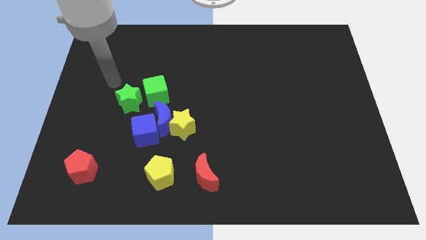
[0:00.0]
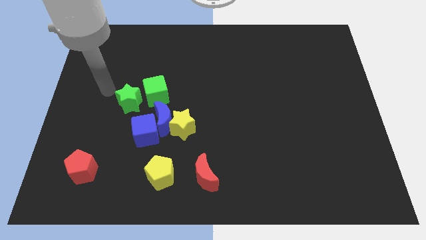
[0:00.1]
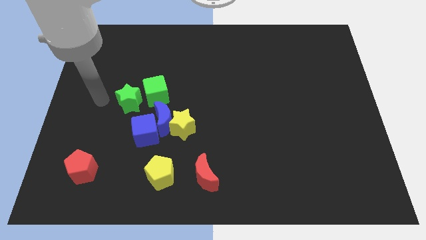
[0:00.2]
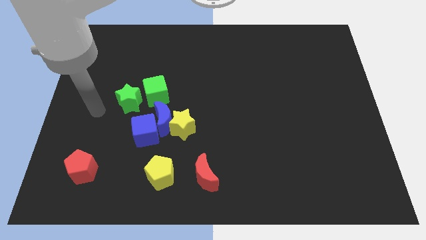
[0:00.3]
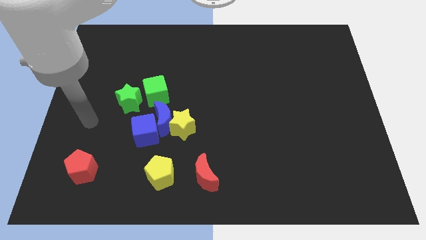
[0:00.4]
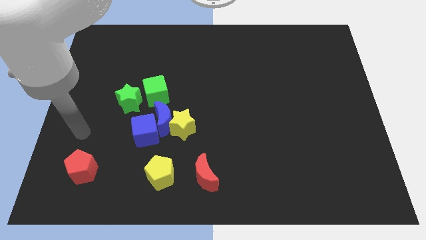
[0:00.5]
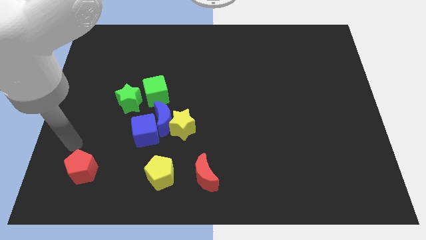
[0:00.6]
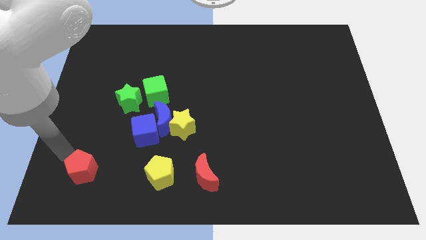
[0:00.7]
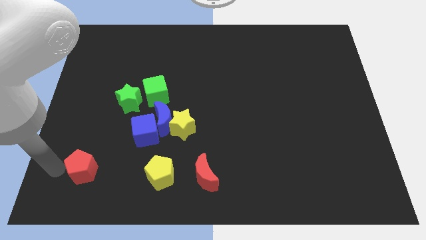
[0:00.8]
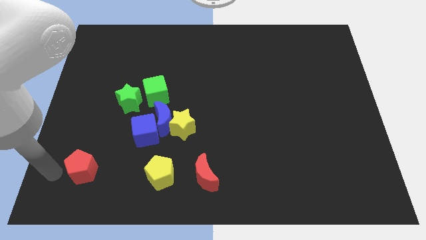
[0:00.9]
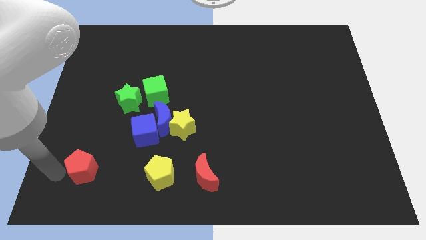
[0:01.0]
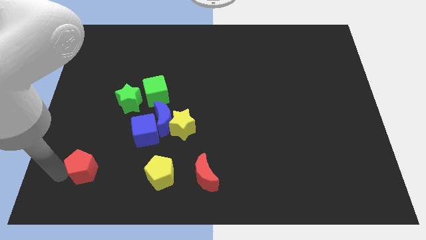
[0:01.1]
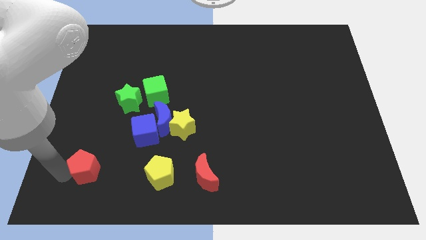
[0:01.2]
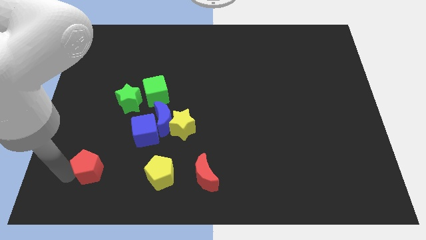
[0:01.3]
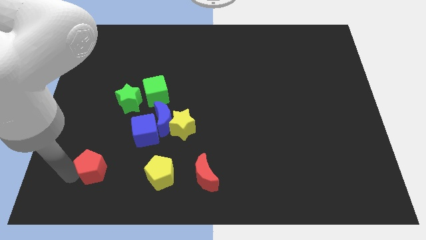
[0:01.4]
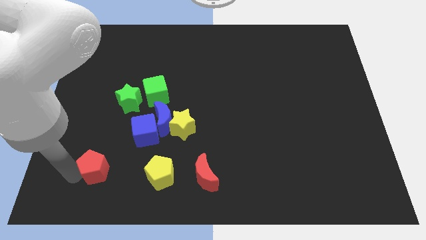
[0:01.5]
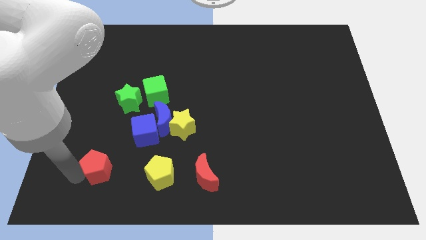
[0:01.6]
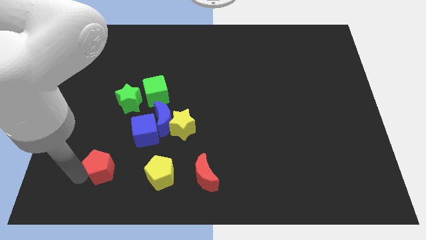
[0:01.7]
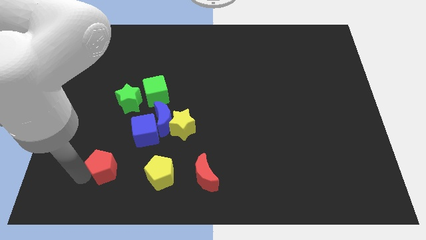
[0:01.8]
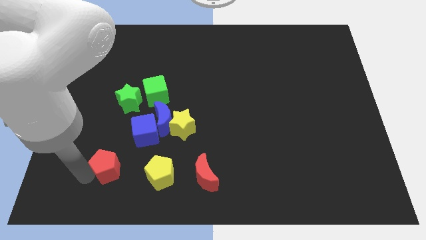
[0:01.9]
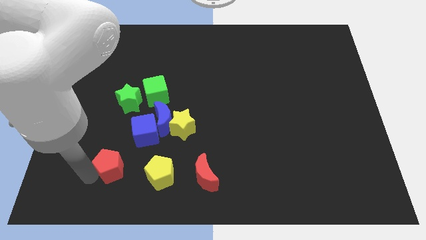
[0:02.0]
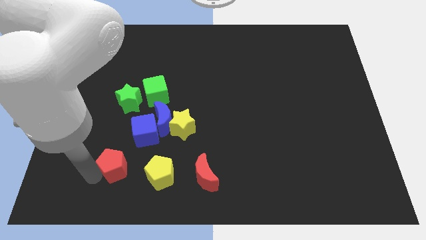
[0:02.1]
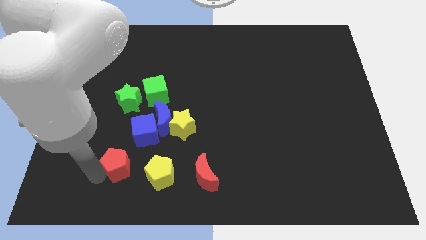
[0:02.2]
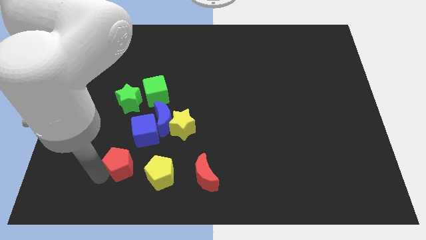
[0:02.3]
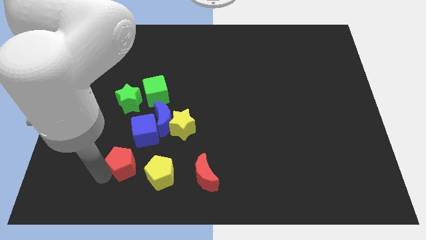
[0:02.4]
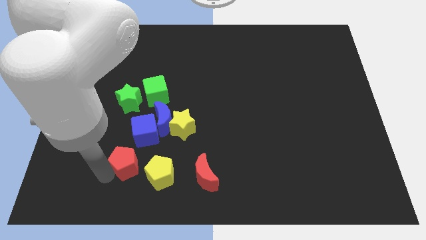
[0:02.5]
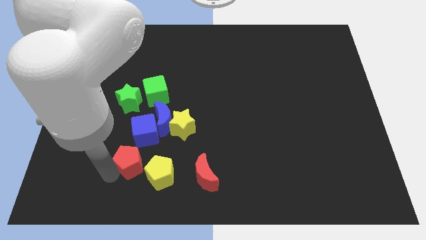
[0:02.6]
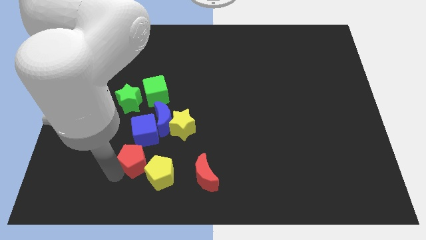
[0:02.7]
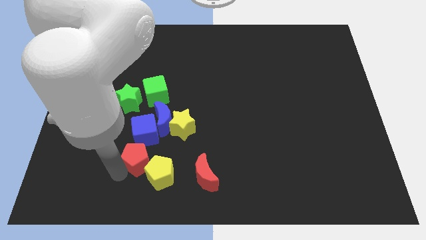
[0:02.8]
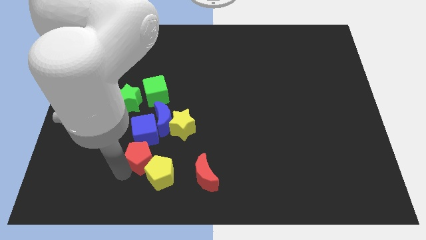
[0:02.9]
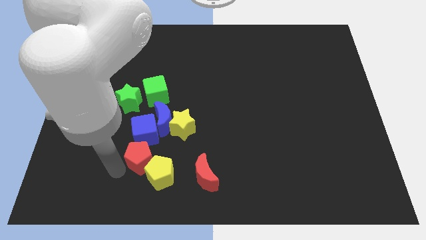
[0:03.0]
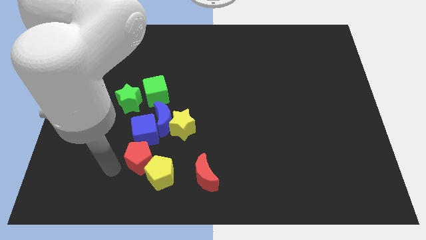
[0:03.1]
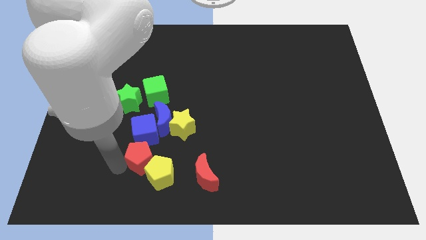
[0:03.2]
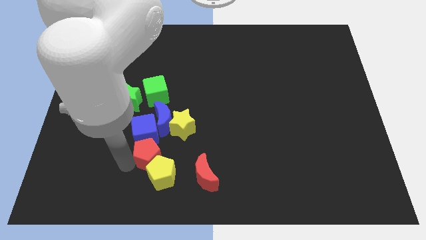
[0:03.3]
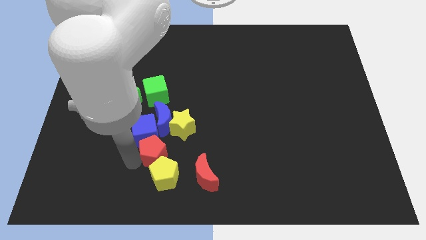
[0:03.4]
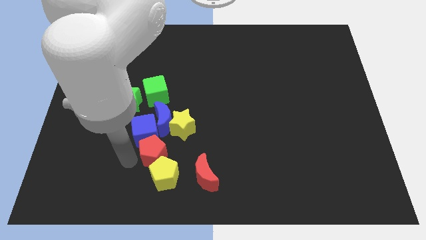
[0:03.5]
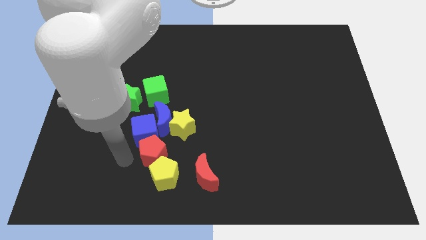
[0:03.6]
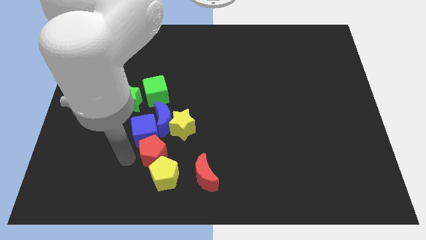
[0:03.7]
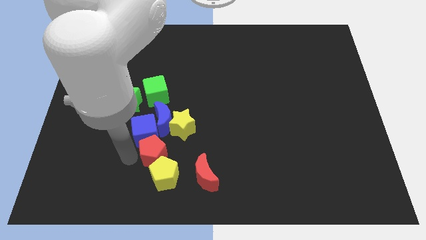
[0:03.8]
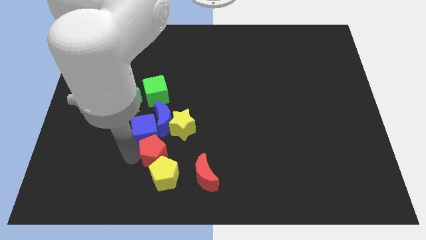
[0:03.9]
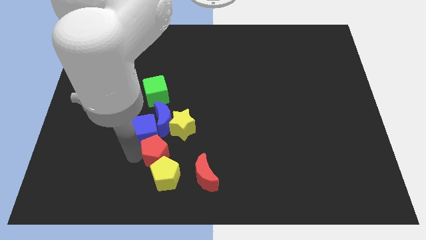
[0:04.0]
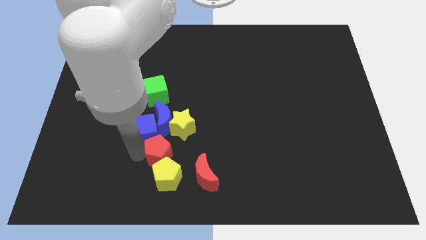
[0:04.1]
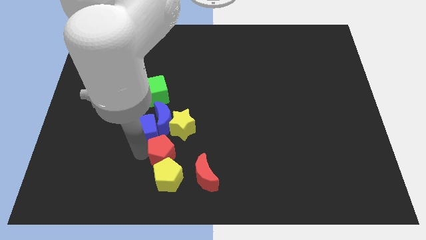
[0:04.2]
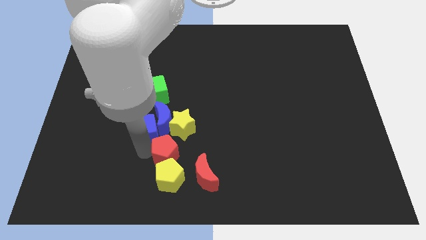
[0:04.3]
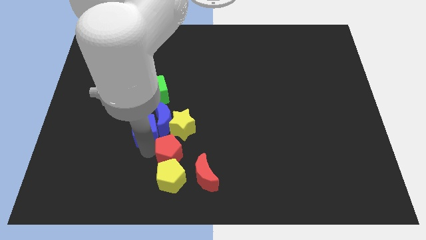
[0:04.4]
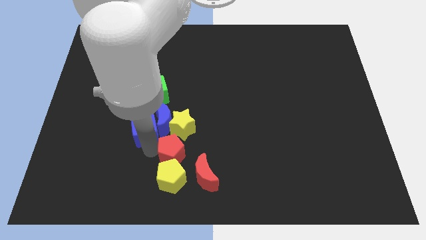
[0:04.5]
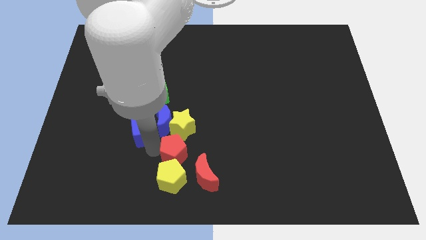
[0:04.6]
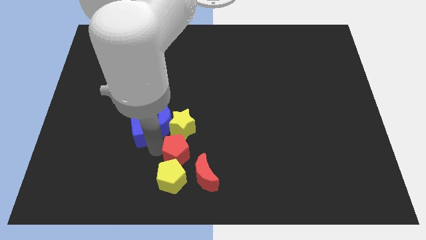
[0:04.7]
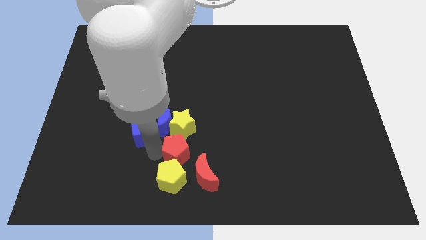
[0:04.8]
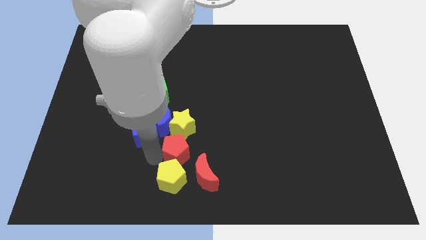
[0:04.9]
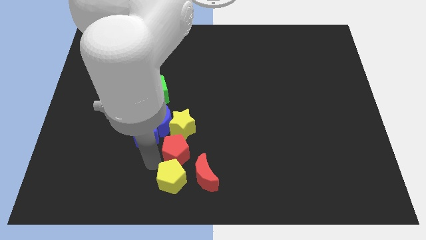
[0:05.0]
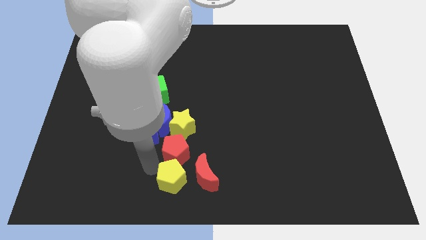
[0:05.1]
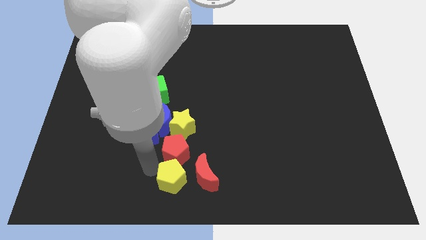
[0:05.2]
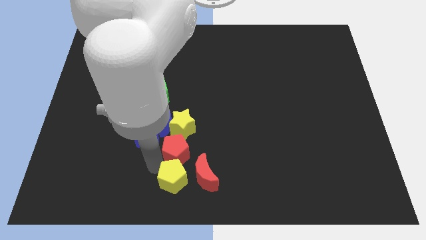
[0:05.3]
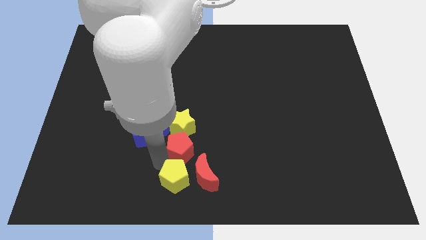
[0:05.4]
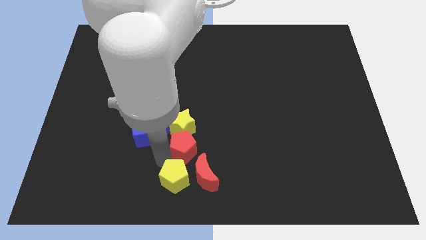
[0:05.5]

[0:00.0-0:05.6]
slide the red pentagon right

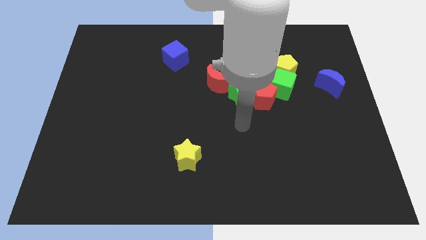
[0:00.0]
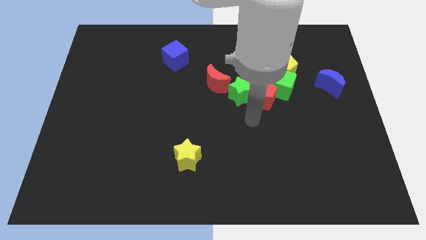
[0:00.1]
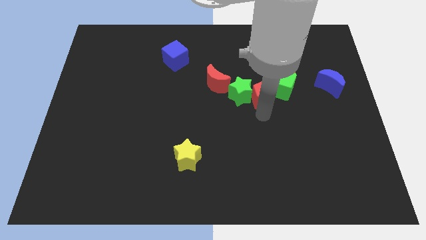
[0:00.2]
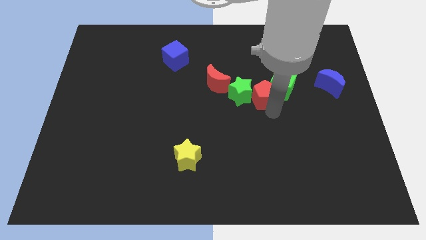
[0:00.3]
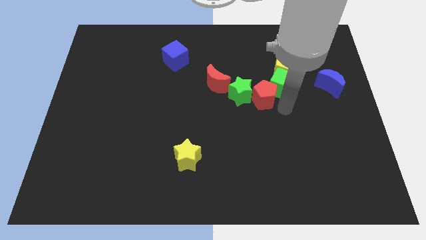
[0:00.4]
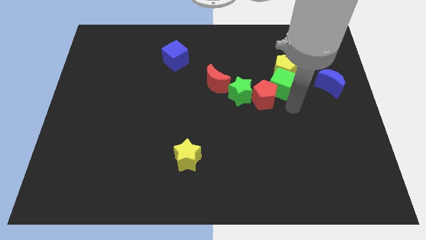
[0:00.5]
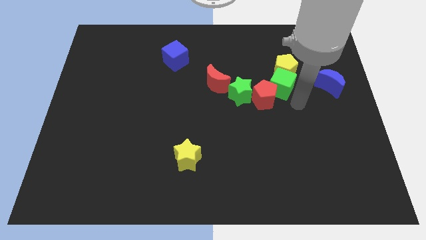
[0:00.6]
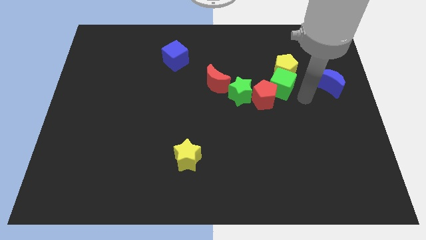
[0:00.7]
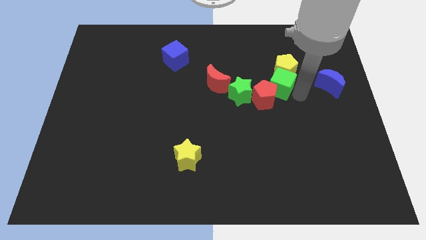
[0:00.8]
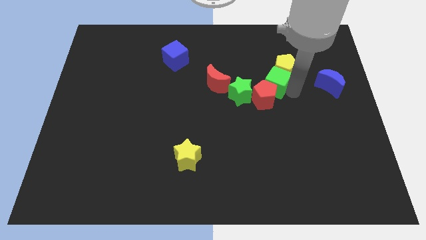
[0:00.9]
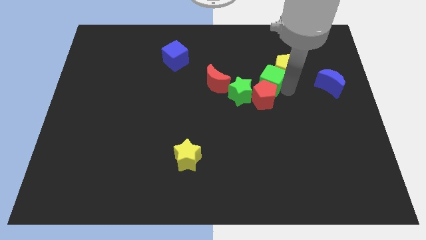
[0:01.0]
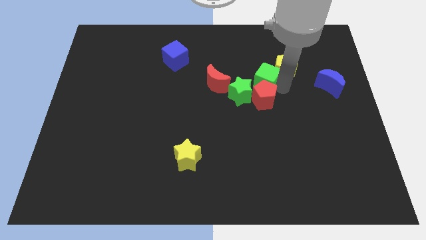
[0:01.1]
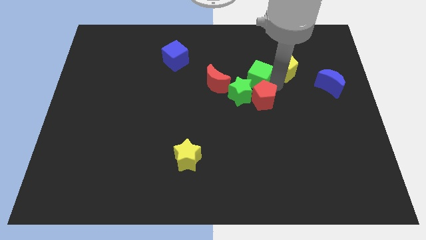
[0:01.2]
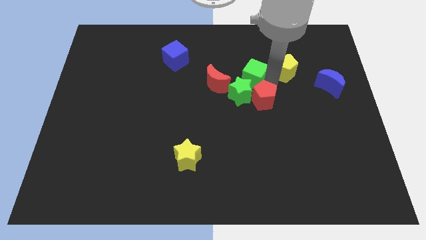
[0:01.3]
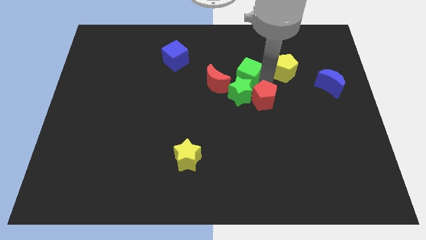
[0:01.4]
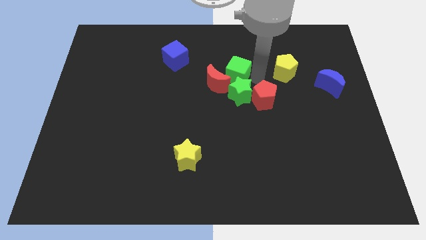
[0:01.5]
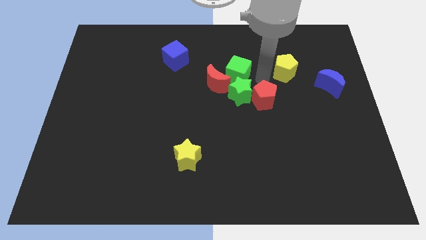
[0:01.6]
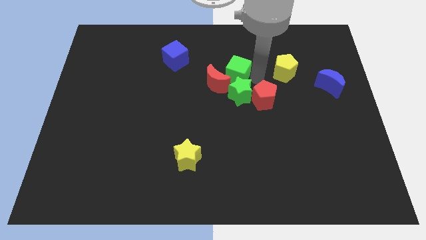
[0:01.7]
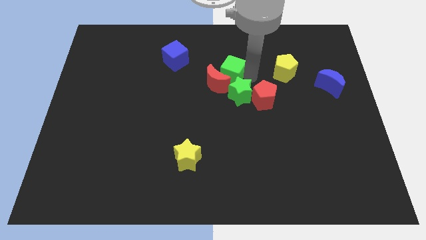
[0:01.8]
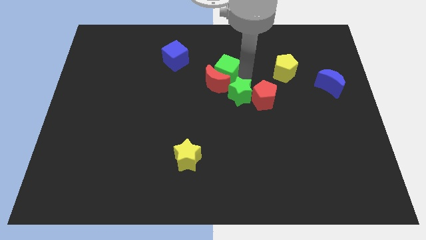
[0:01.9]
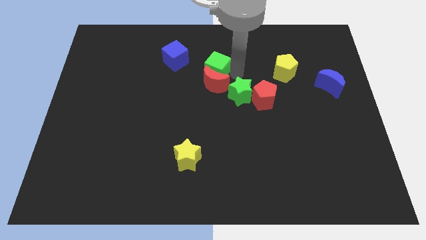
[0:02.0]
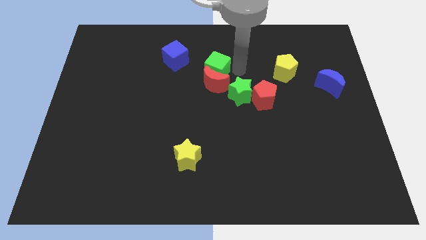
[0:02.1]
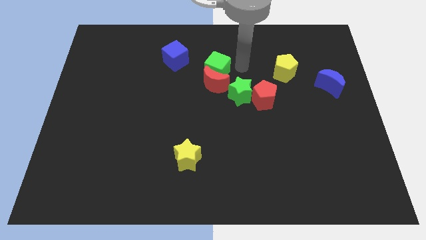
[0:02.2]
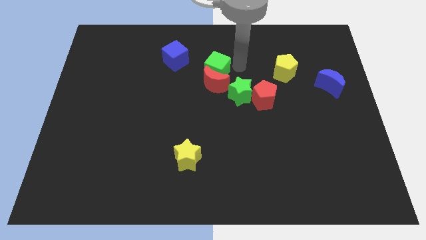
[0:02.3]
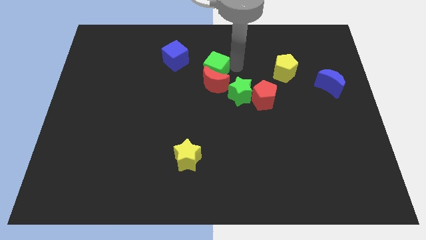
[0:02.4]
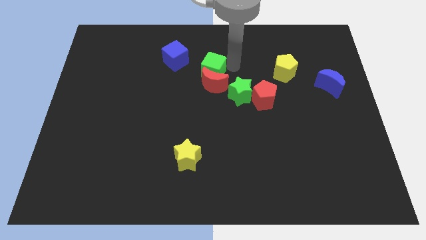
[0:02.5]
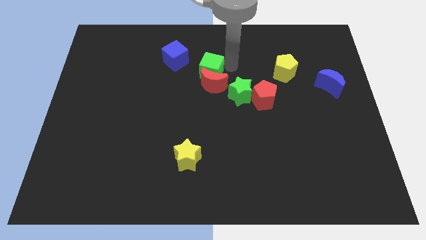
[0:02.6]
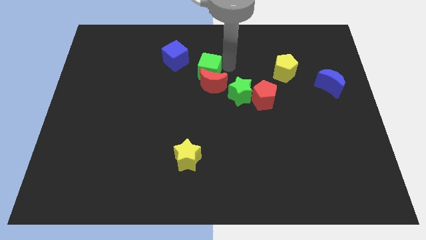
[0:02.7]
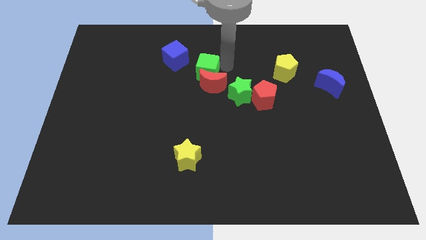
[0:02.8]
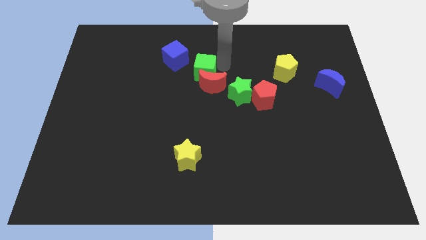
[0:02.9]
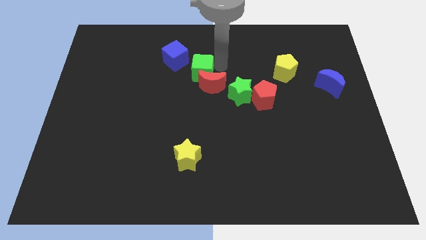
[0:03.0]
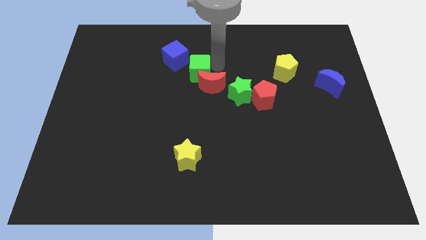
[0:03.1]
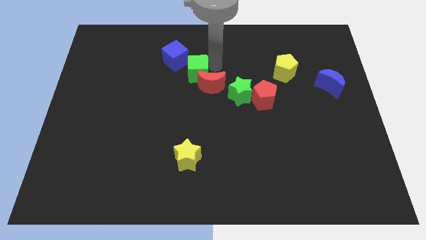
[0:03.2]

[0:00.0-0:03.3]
move the green cube to the left
